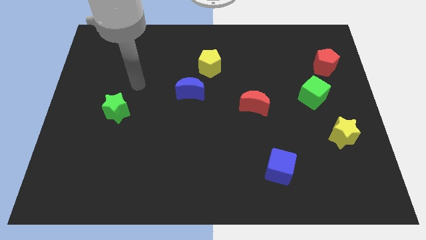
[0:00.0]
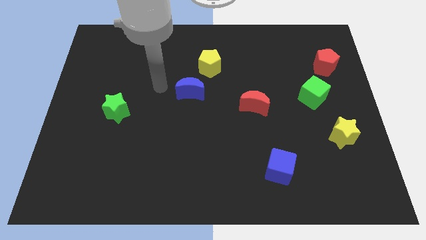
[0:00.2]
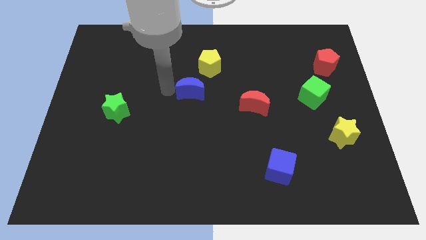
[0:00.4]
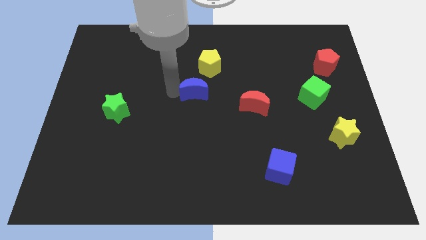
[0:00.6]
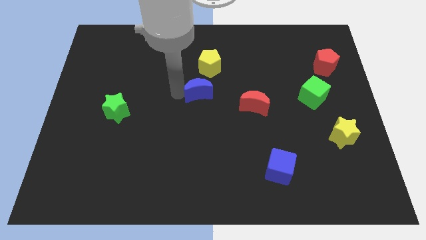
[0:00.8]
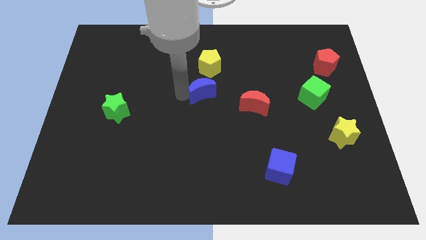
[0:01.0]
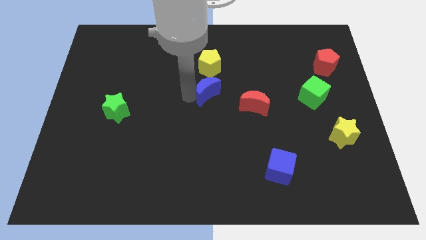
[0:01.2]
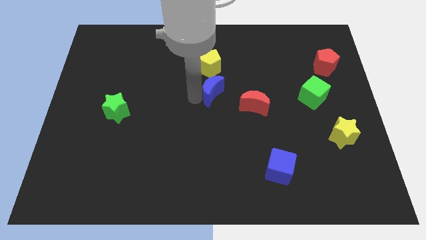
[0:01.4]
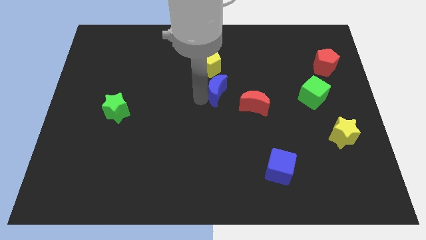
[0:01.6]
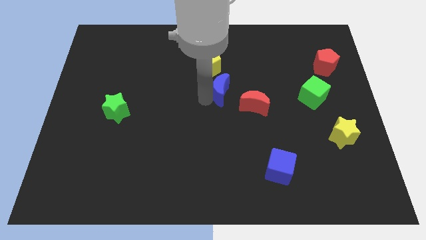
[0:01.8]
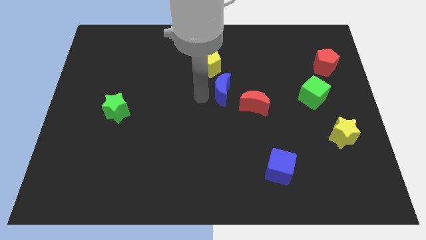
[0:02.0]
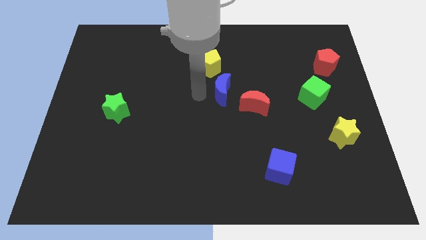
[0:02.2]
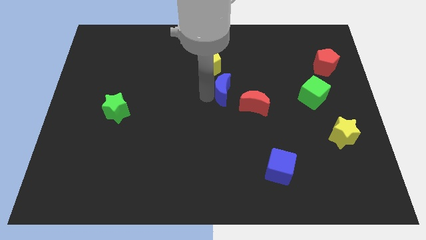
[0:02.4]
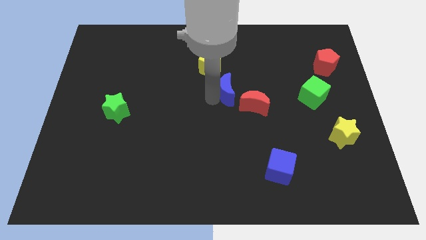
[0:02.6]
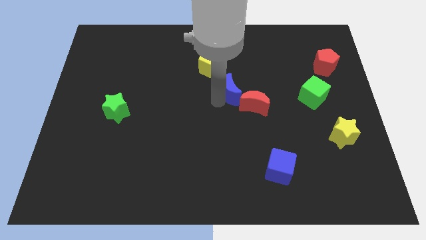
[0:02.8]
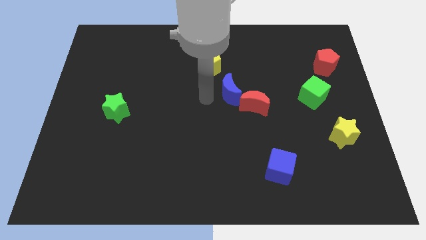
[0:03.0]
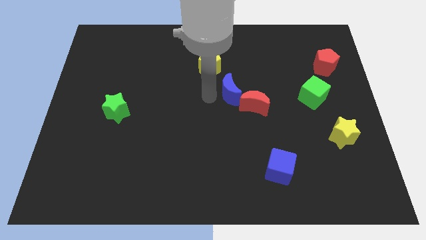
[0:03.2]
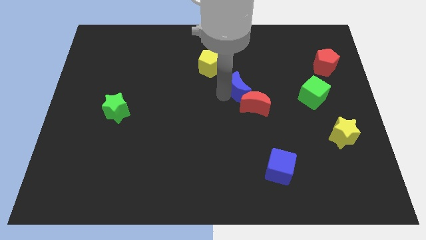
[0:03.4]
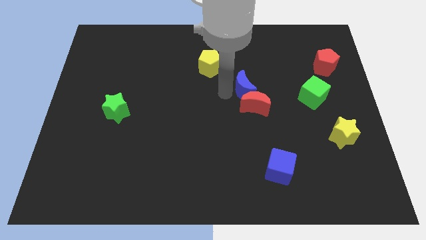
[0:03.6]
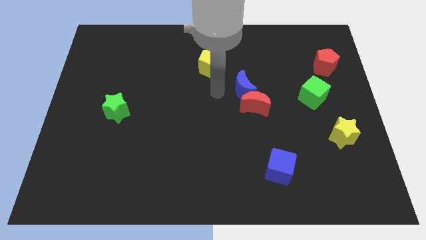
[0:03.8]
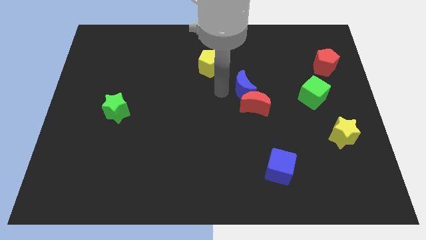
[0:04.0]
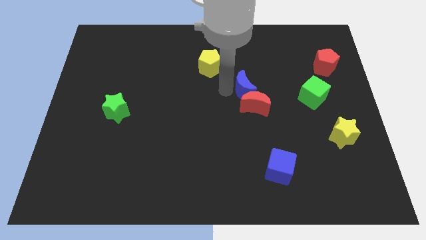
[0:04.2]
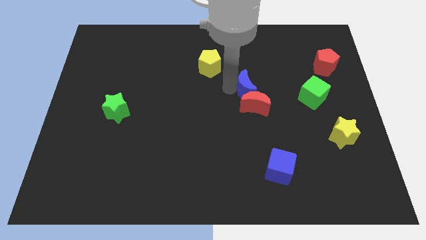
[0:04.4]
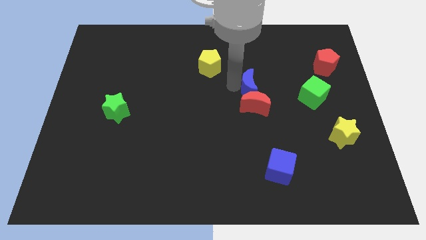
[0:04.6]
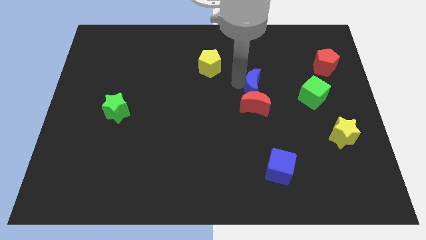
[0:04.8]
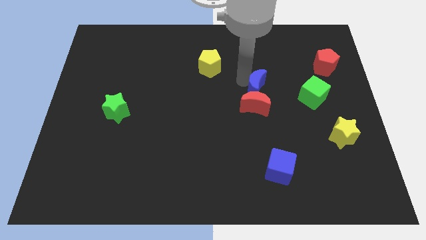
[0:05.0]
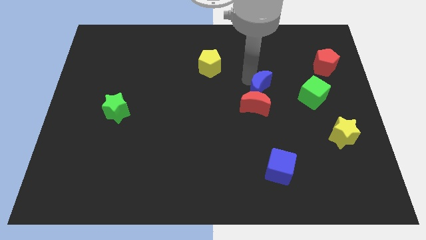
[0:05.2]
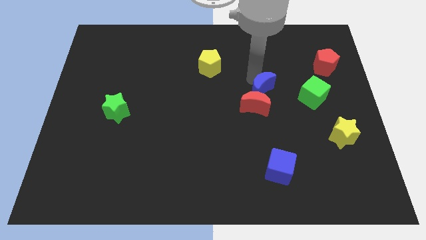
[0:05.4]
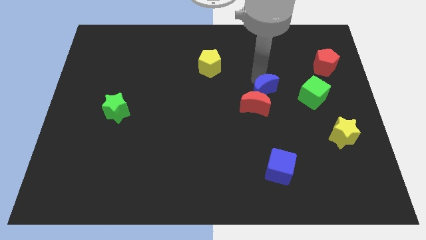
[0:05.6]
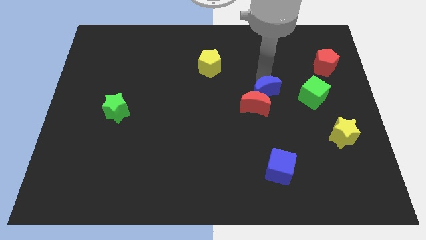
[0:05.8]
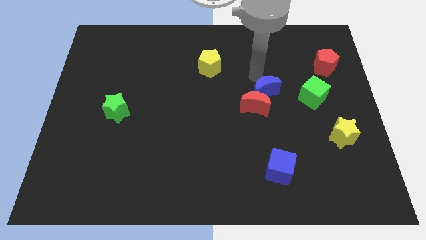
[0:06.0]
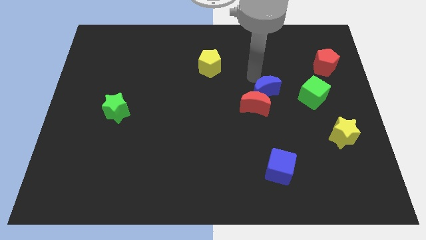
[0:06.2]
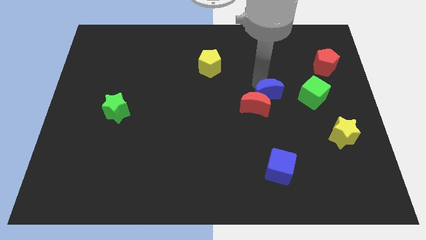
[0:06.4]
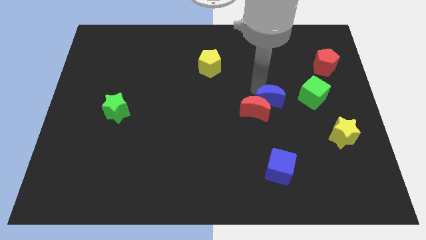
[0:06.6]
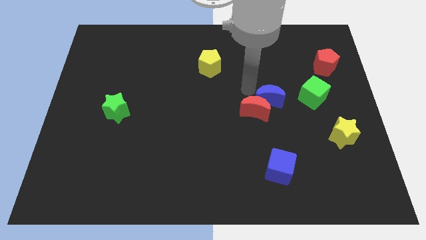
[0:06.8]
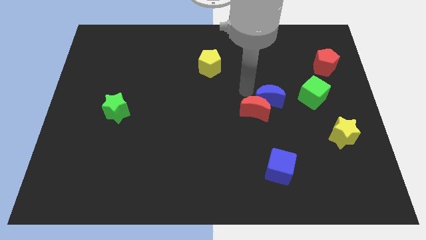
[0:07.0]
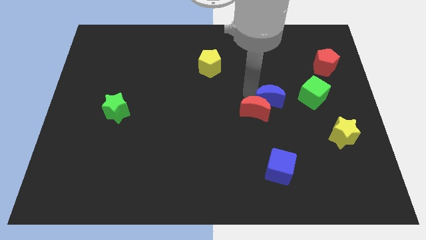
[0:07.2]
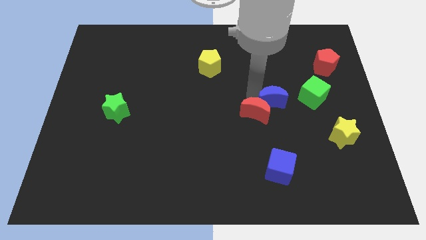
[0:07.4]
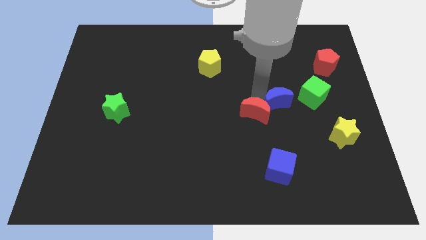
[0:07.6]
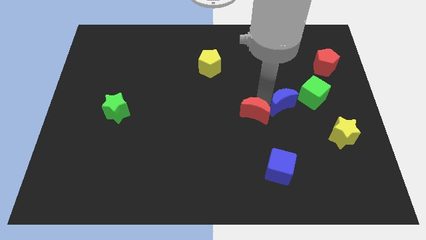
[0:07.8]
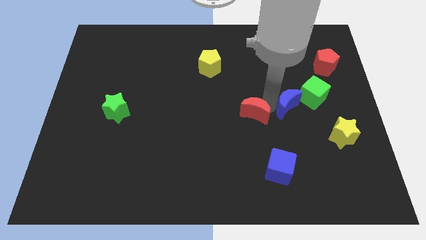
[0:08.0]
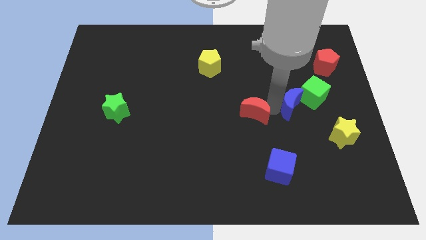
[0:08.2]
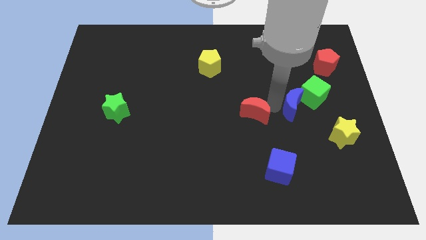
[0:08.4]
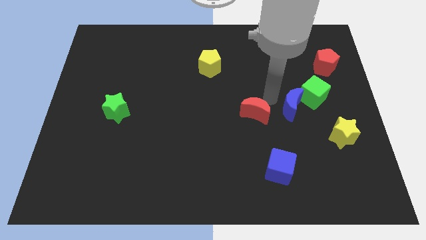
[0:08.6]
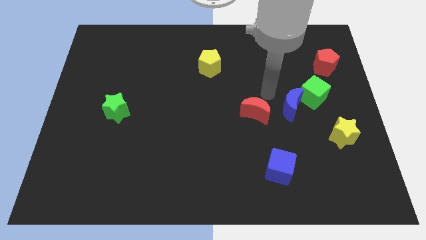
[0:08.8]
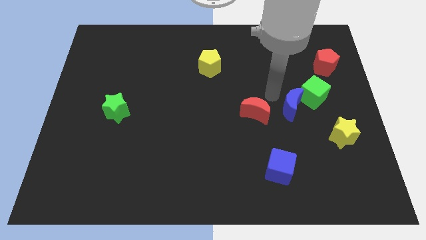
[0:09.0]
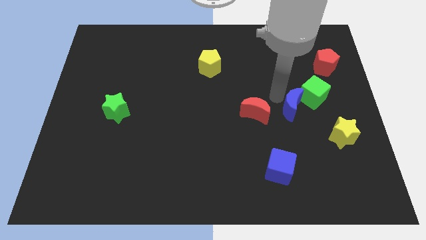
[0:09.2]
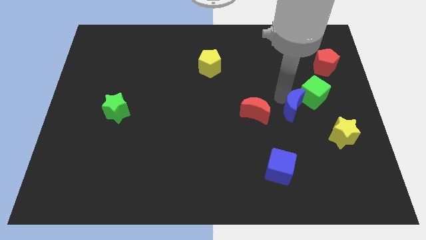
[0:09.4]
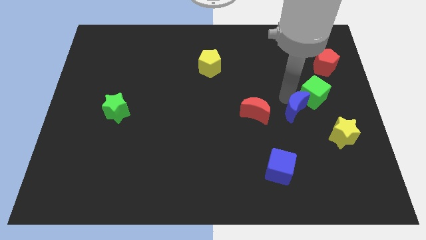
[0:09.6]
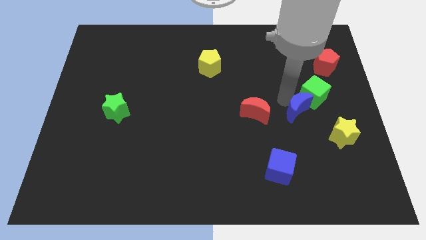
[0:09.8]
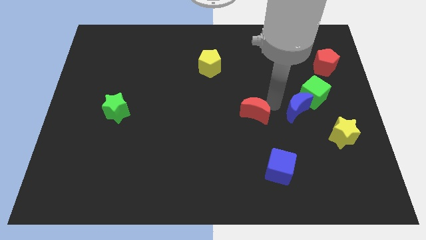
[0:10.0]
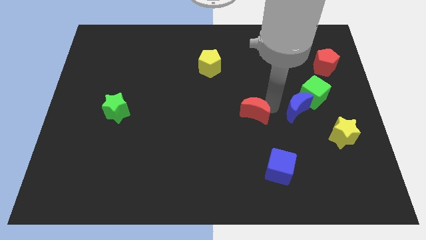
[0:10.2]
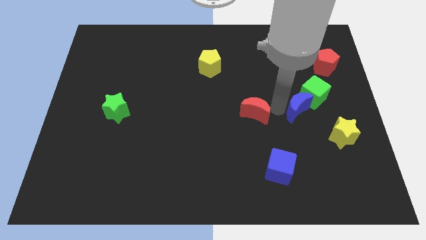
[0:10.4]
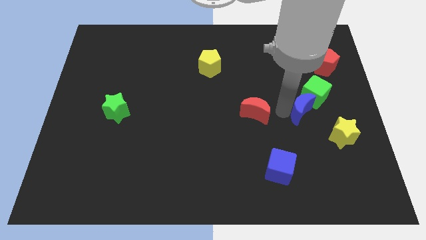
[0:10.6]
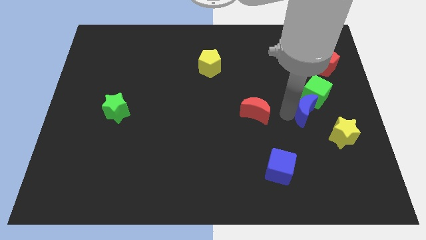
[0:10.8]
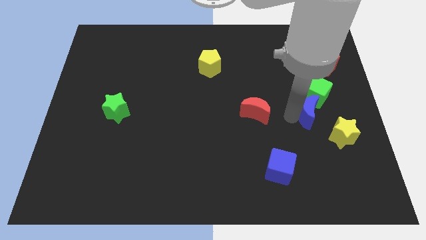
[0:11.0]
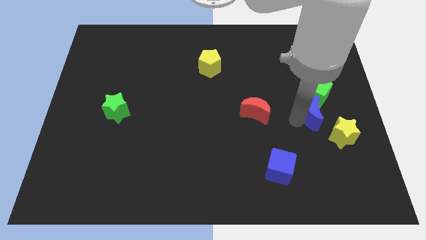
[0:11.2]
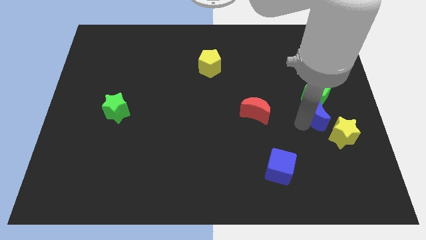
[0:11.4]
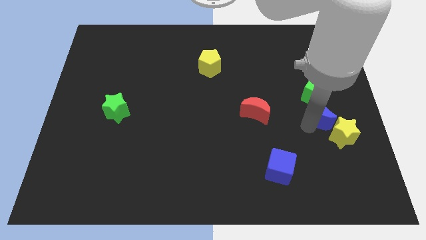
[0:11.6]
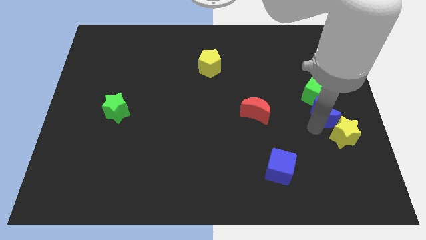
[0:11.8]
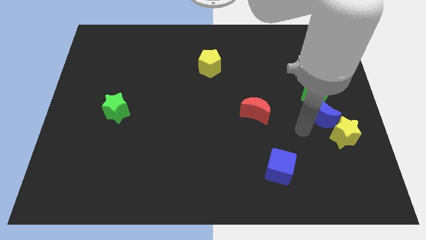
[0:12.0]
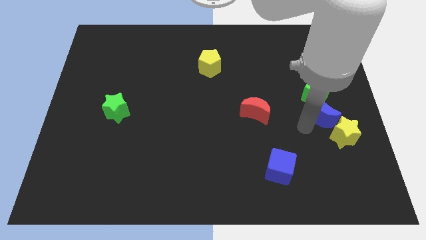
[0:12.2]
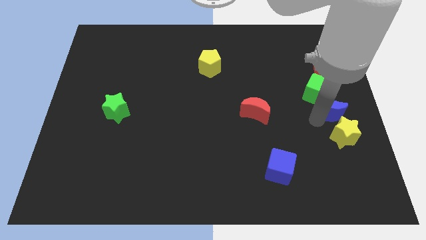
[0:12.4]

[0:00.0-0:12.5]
push the blue moon to the center right
